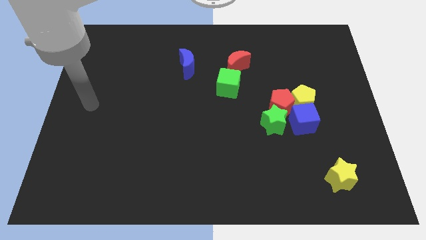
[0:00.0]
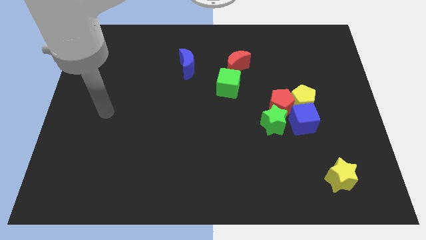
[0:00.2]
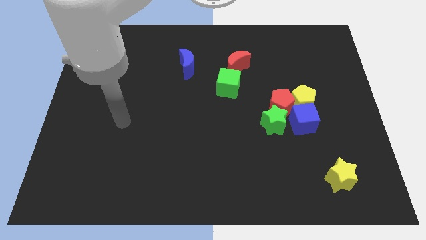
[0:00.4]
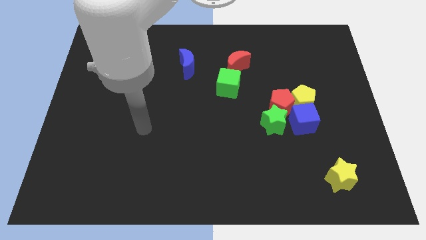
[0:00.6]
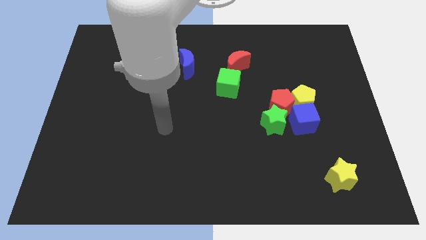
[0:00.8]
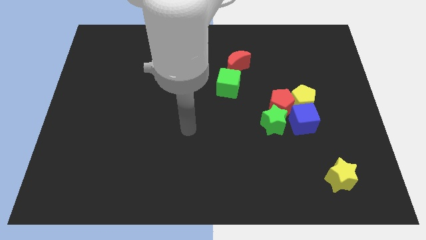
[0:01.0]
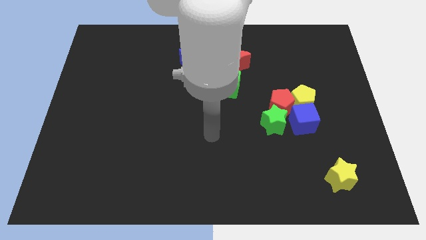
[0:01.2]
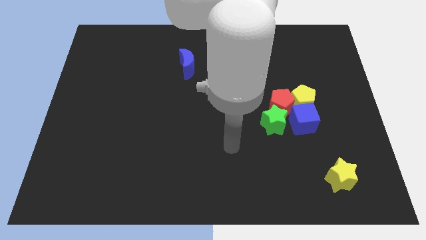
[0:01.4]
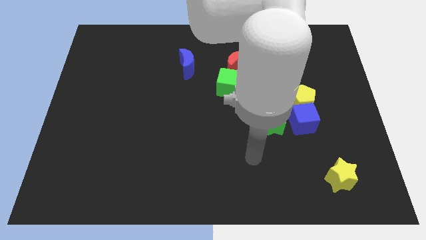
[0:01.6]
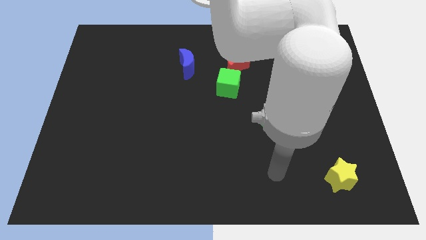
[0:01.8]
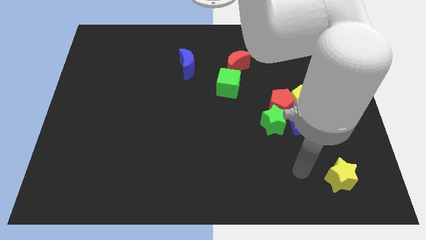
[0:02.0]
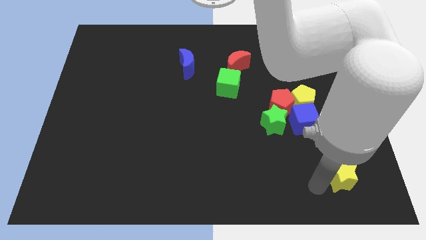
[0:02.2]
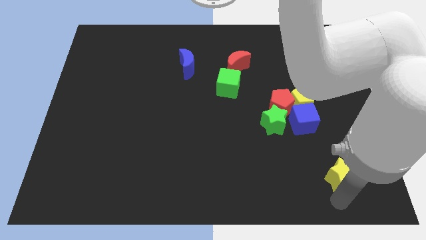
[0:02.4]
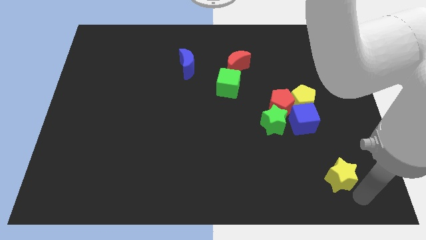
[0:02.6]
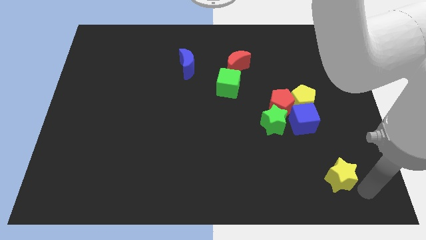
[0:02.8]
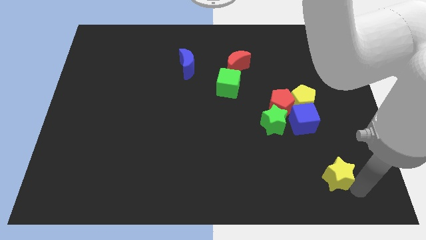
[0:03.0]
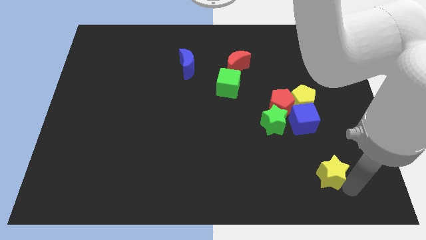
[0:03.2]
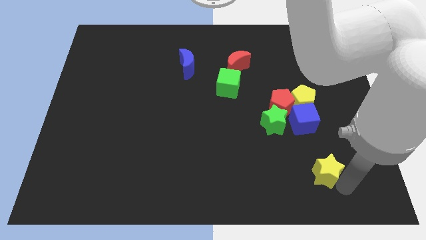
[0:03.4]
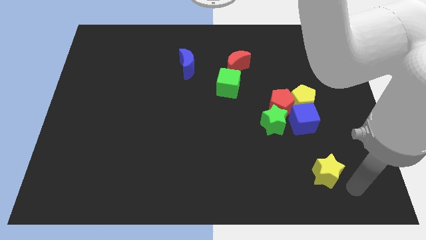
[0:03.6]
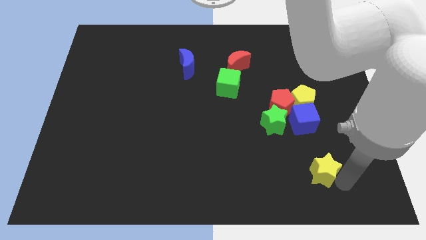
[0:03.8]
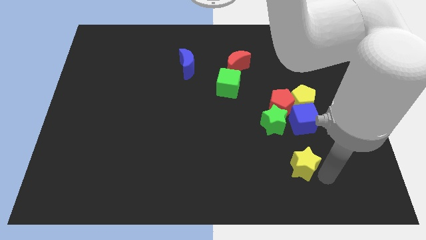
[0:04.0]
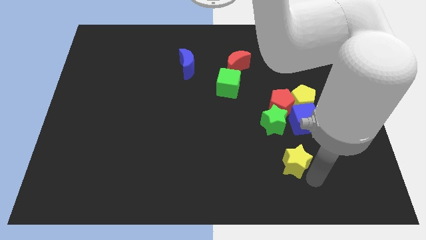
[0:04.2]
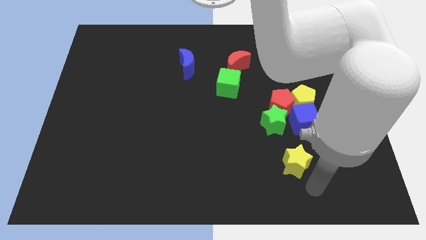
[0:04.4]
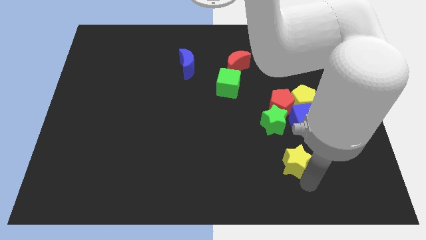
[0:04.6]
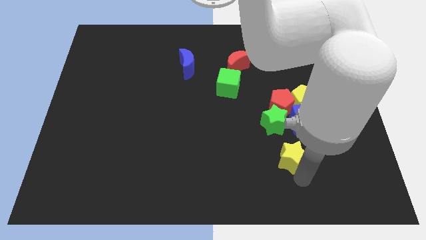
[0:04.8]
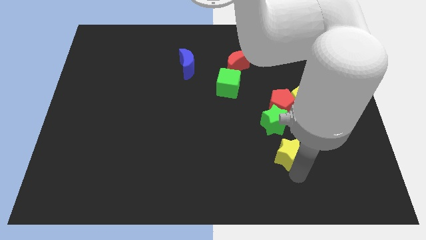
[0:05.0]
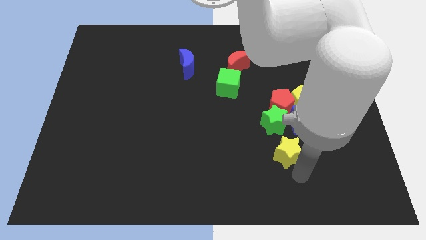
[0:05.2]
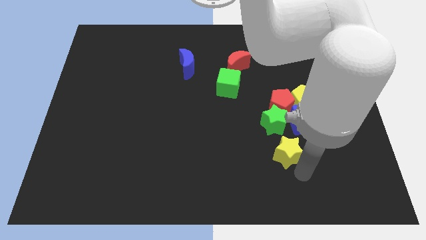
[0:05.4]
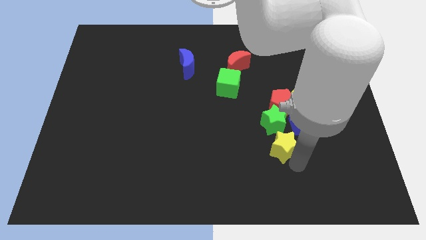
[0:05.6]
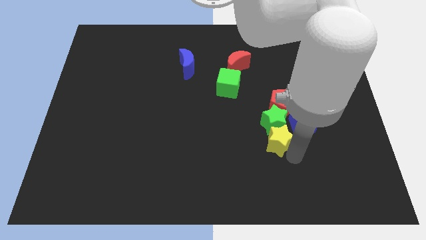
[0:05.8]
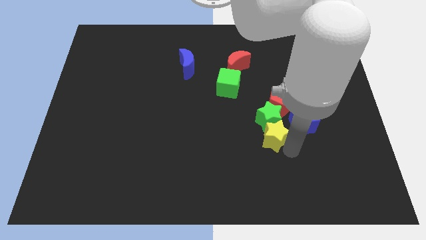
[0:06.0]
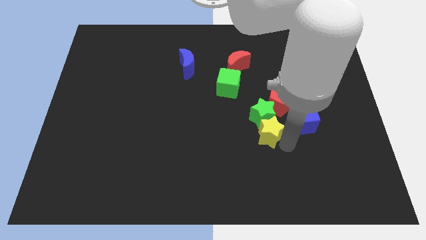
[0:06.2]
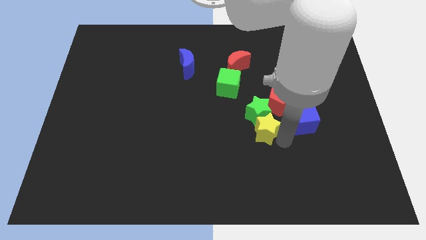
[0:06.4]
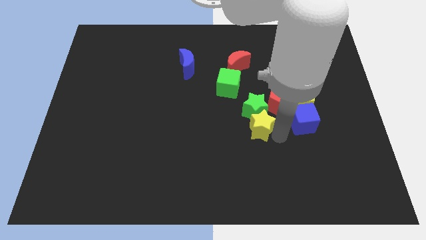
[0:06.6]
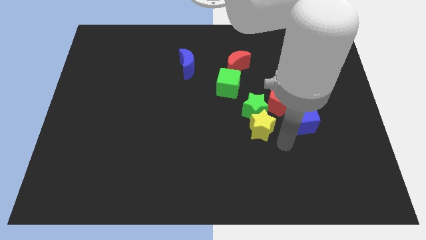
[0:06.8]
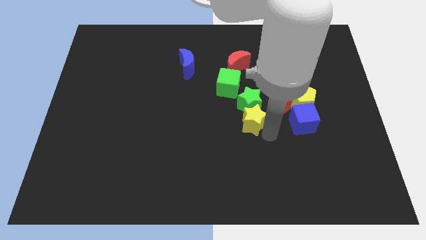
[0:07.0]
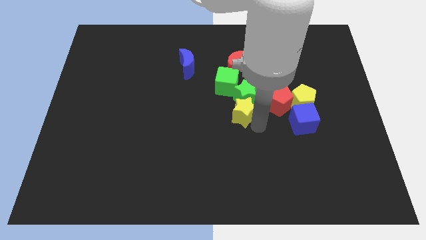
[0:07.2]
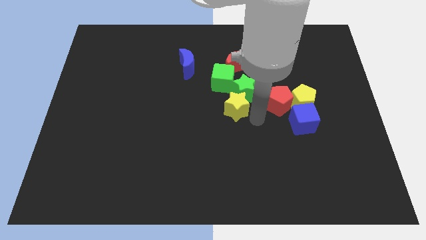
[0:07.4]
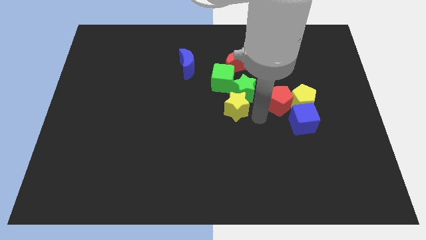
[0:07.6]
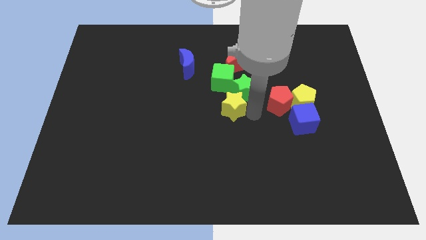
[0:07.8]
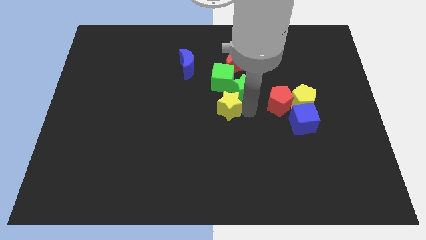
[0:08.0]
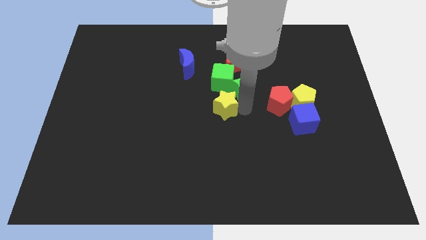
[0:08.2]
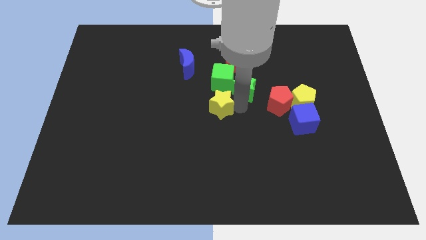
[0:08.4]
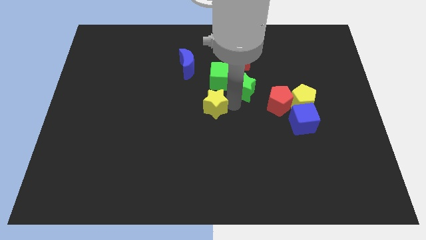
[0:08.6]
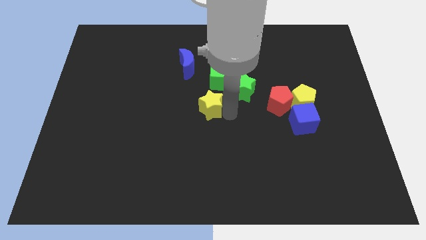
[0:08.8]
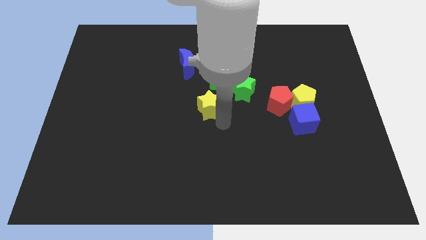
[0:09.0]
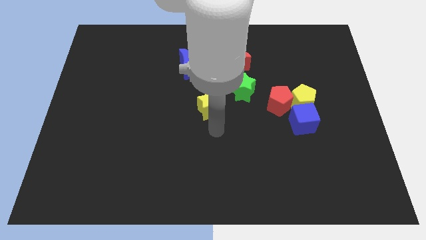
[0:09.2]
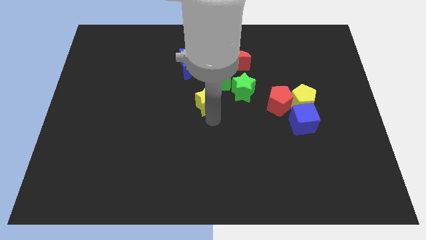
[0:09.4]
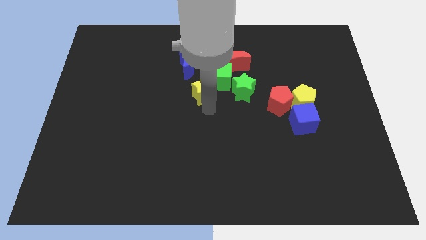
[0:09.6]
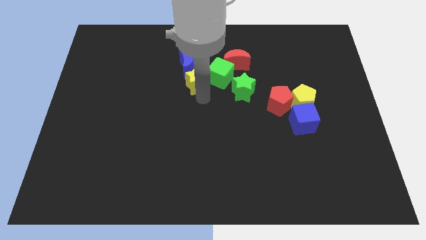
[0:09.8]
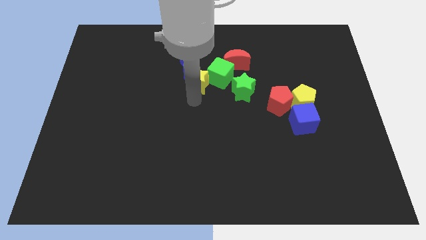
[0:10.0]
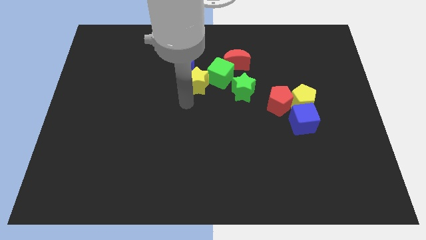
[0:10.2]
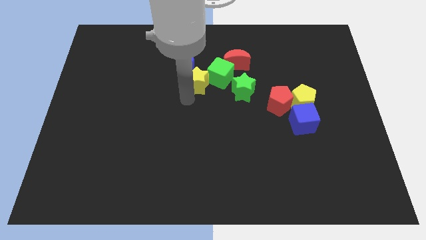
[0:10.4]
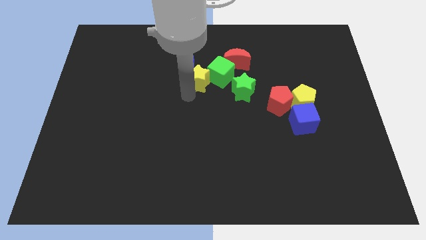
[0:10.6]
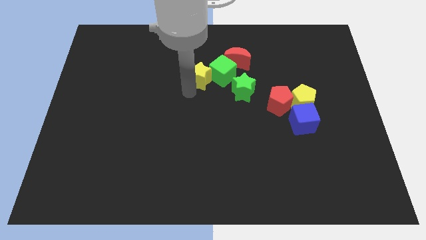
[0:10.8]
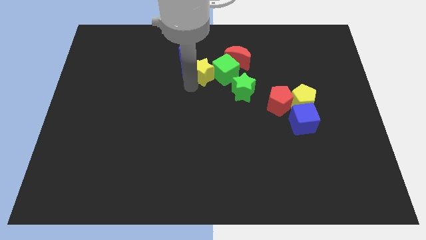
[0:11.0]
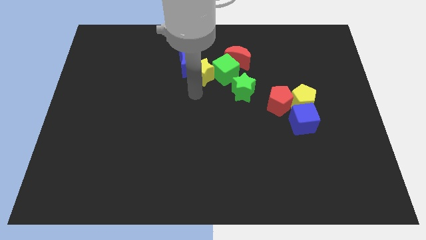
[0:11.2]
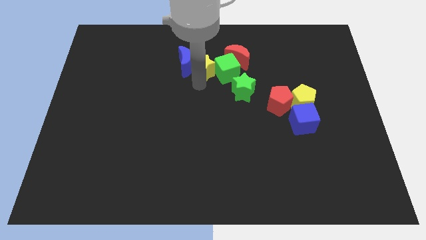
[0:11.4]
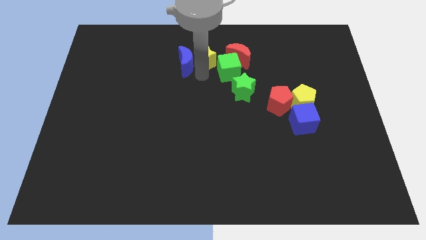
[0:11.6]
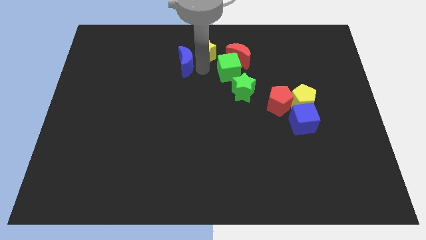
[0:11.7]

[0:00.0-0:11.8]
move the yellow star to the top
